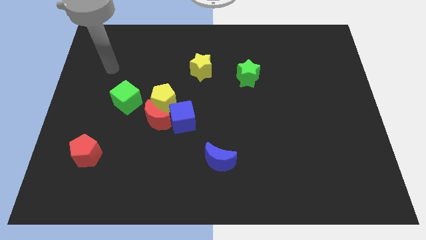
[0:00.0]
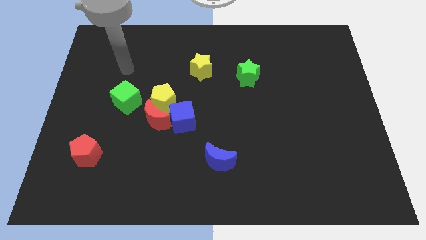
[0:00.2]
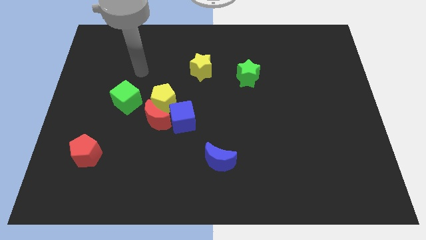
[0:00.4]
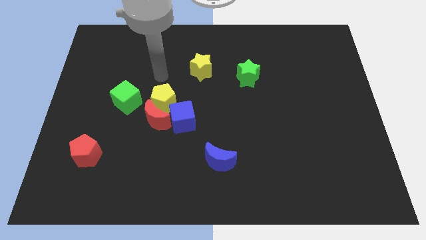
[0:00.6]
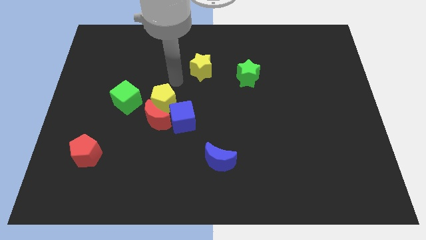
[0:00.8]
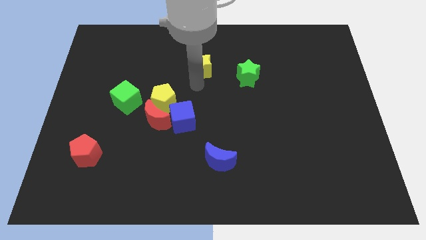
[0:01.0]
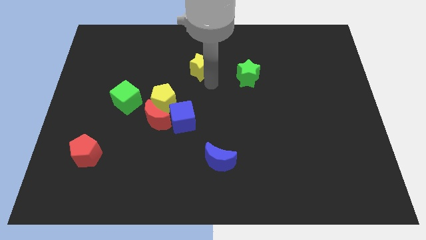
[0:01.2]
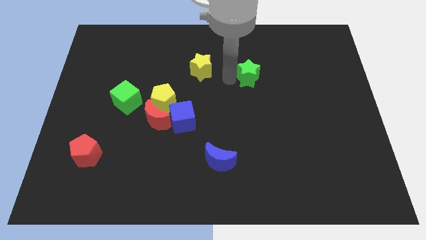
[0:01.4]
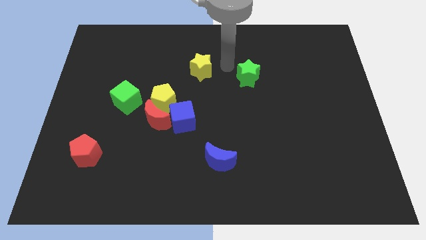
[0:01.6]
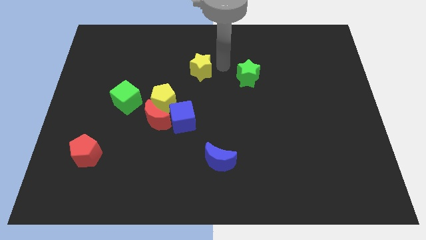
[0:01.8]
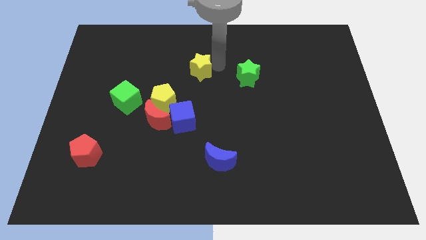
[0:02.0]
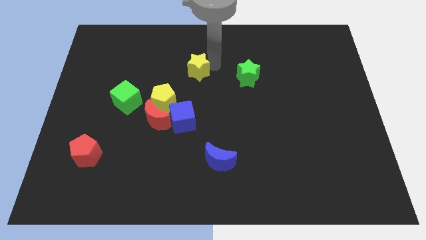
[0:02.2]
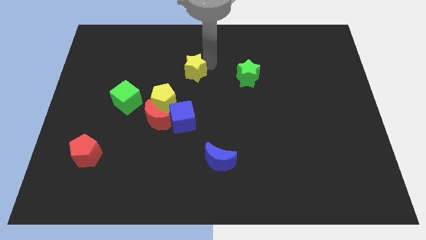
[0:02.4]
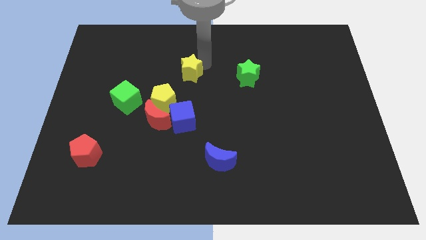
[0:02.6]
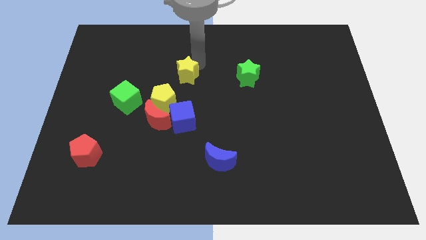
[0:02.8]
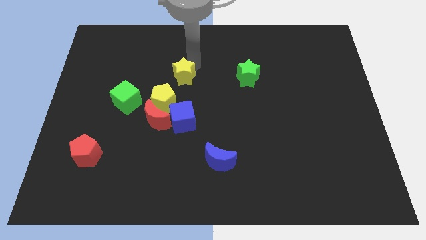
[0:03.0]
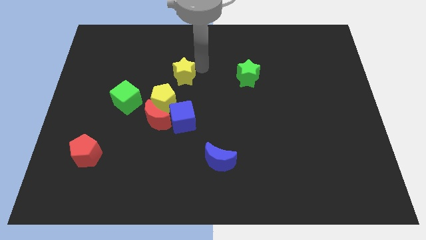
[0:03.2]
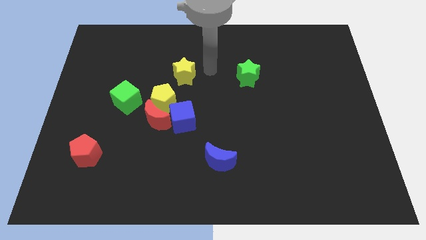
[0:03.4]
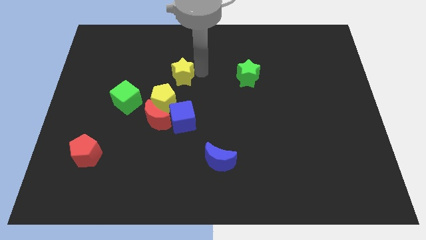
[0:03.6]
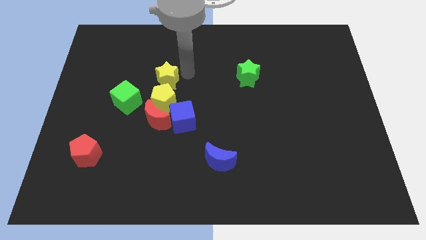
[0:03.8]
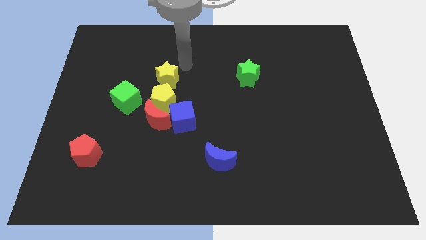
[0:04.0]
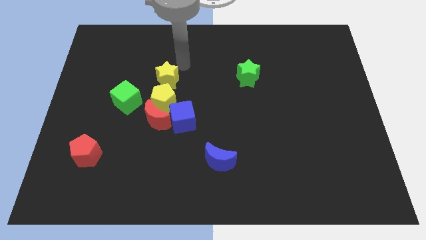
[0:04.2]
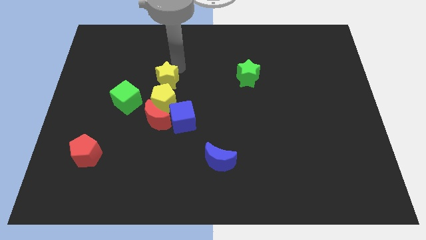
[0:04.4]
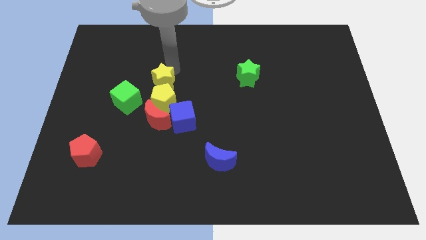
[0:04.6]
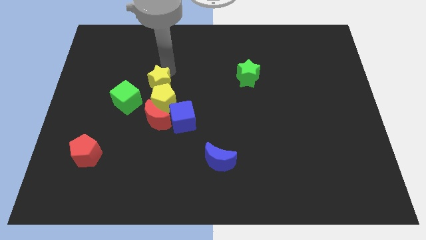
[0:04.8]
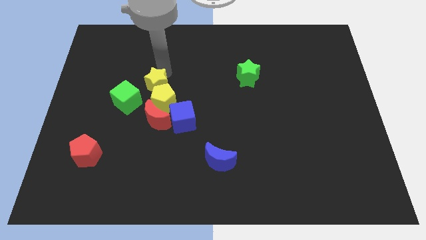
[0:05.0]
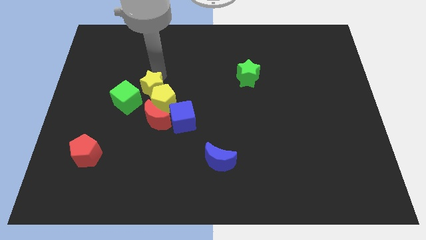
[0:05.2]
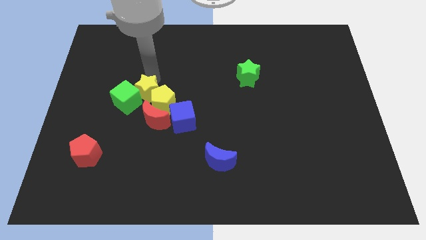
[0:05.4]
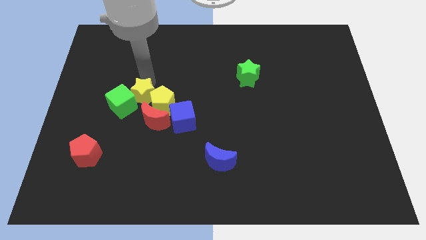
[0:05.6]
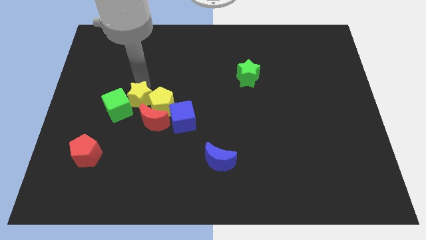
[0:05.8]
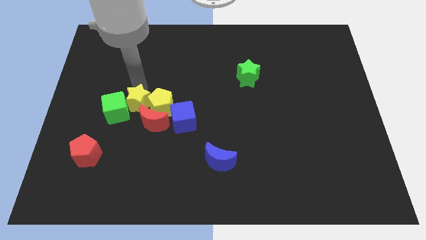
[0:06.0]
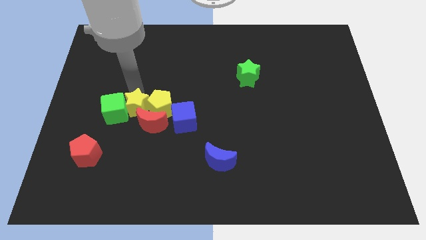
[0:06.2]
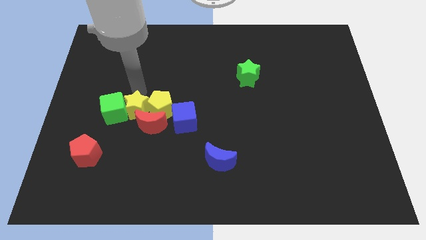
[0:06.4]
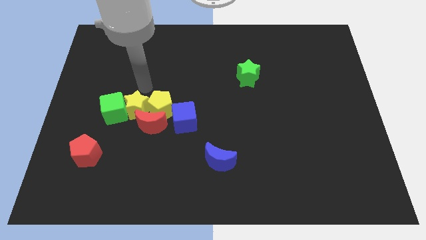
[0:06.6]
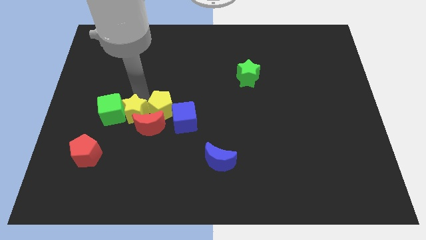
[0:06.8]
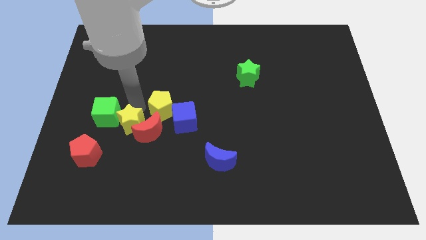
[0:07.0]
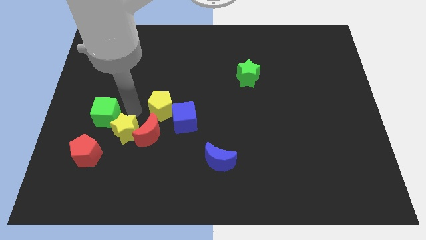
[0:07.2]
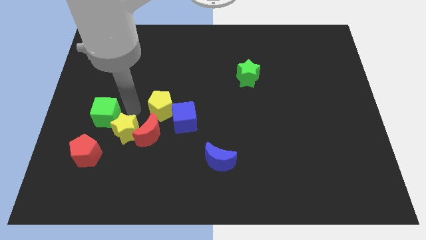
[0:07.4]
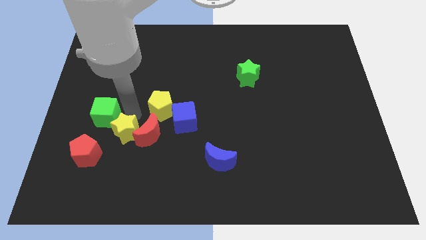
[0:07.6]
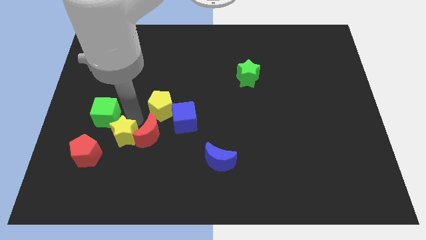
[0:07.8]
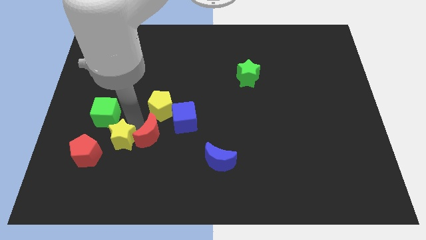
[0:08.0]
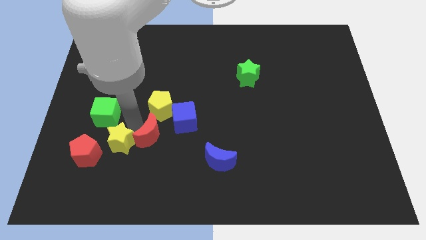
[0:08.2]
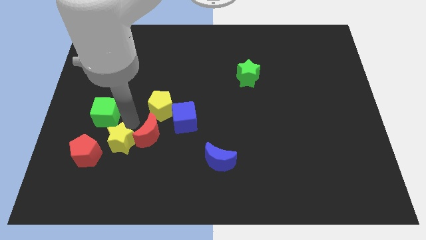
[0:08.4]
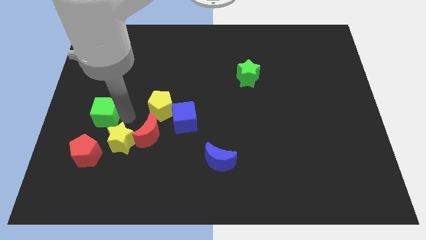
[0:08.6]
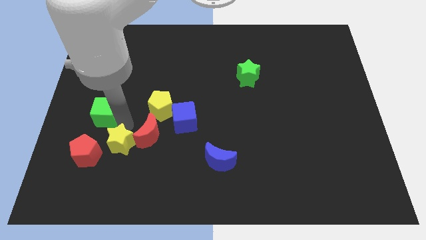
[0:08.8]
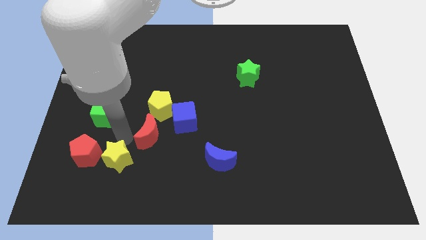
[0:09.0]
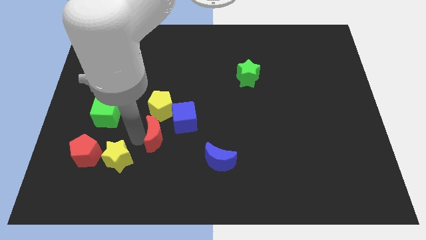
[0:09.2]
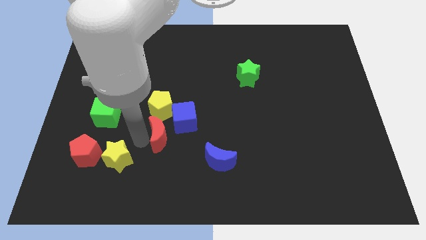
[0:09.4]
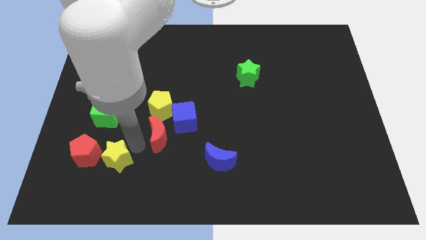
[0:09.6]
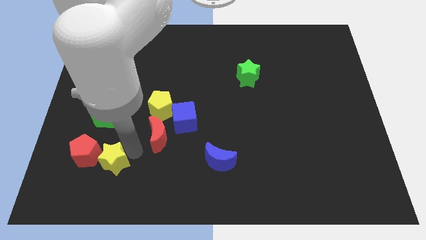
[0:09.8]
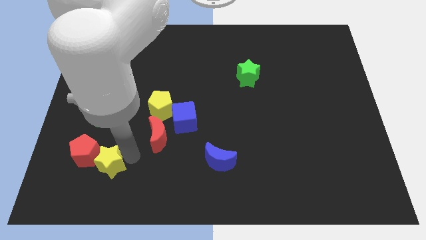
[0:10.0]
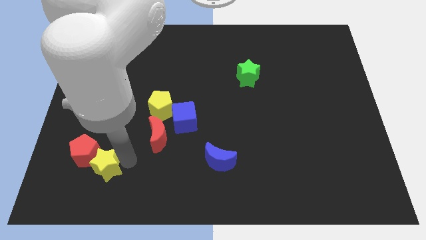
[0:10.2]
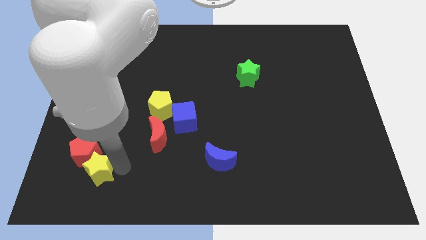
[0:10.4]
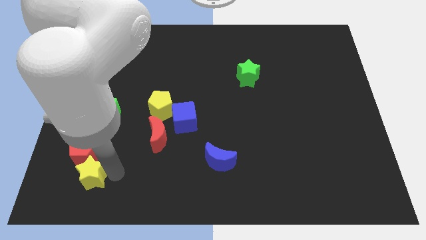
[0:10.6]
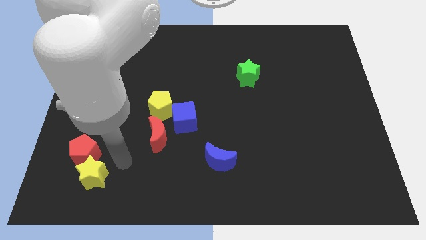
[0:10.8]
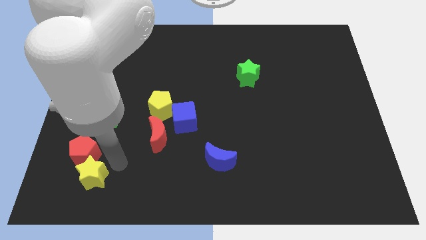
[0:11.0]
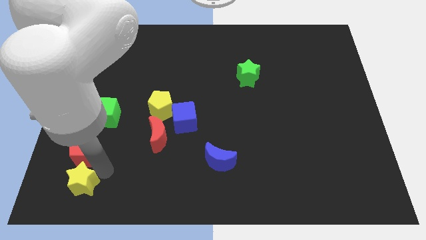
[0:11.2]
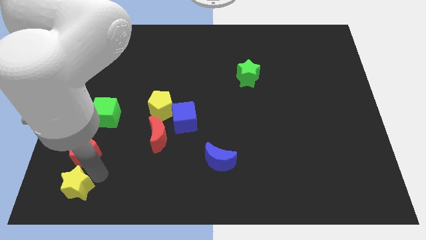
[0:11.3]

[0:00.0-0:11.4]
move the yellow star to the bottom left of the board

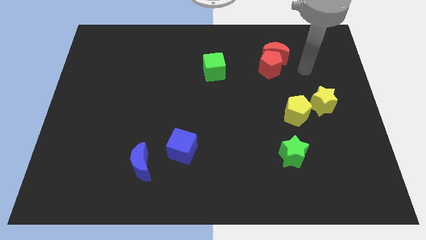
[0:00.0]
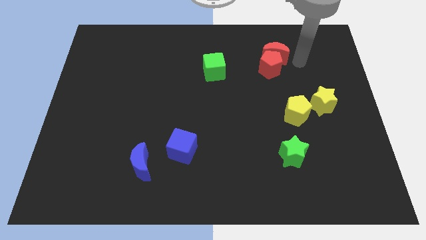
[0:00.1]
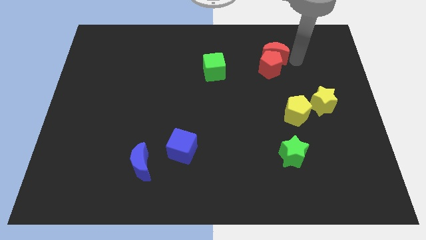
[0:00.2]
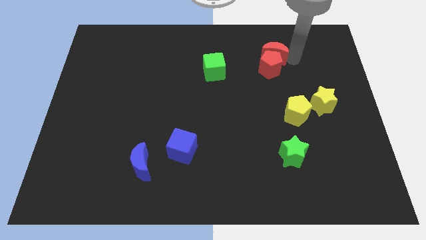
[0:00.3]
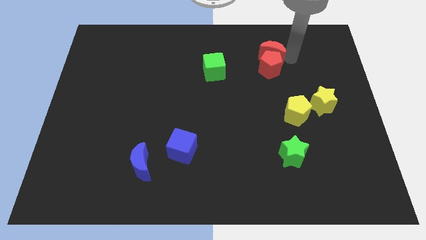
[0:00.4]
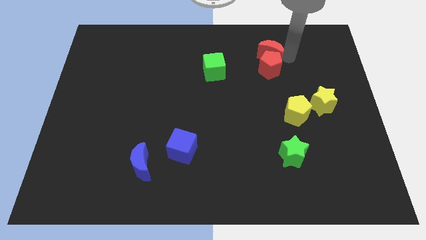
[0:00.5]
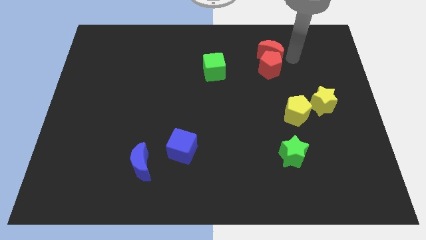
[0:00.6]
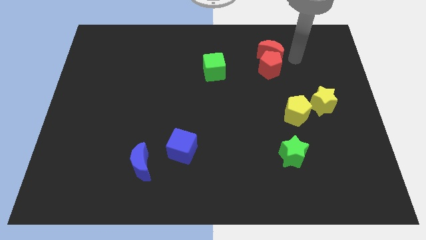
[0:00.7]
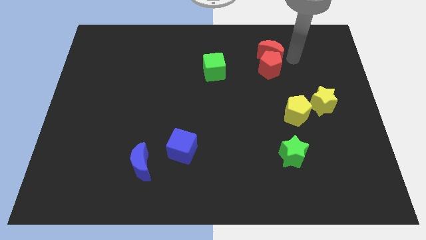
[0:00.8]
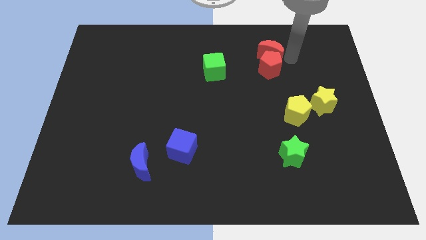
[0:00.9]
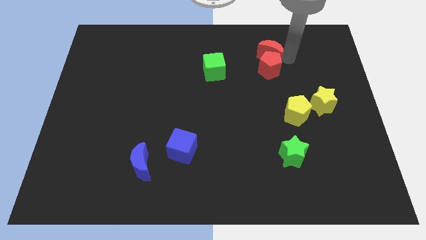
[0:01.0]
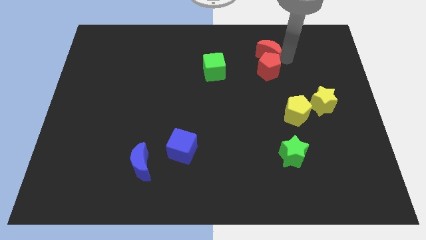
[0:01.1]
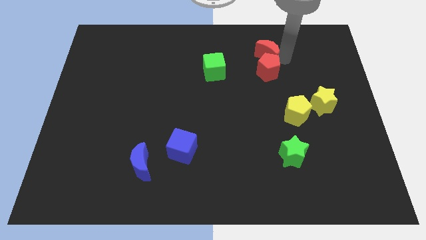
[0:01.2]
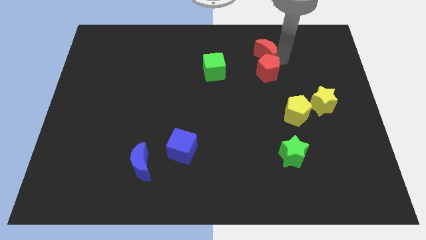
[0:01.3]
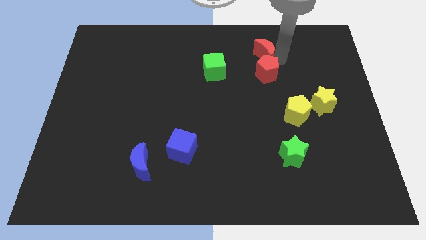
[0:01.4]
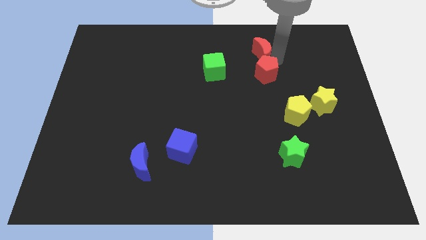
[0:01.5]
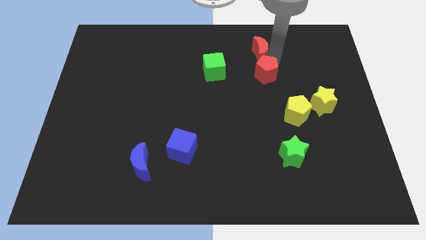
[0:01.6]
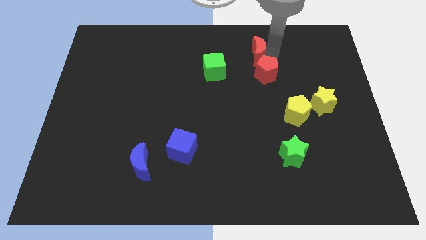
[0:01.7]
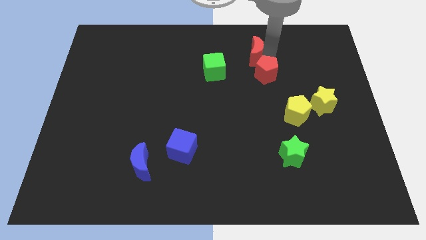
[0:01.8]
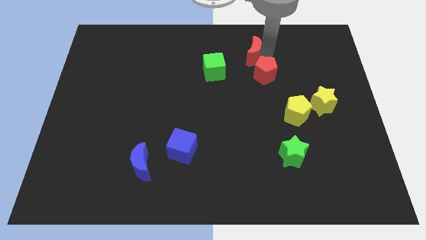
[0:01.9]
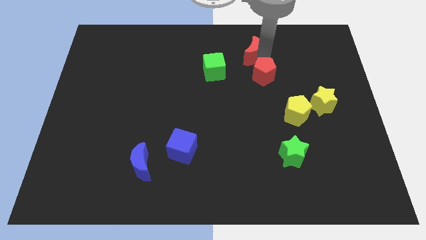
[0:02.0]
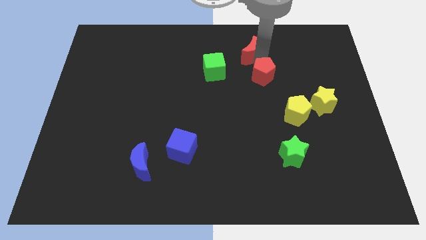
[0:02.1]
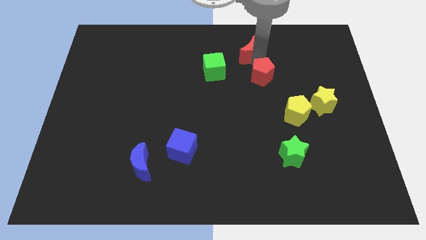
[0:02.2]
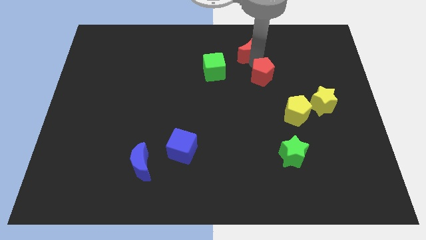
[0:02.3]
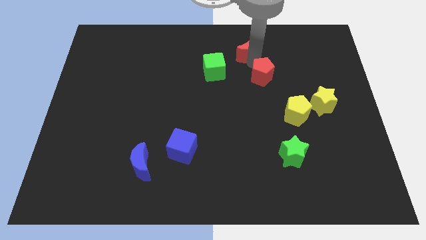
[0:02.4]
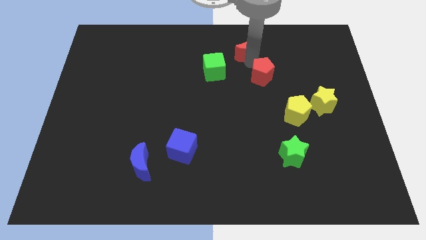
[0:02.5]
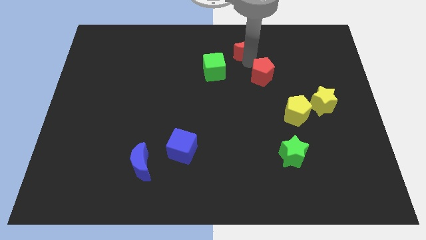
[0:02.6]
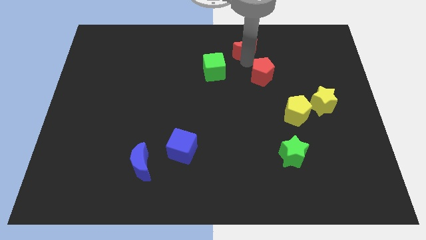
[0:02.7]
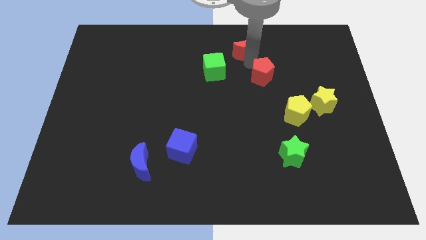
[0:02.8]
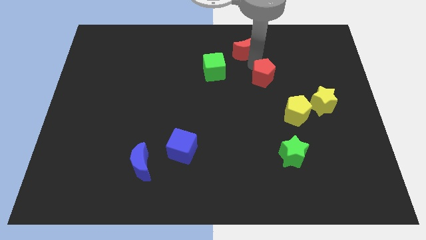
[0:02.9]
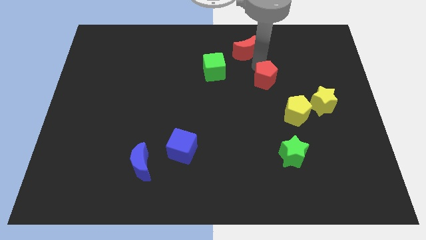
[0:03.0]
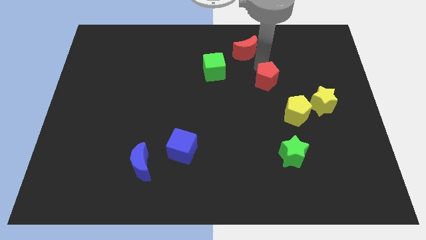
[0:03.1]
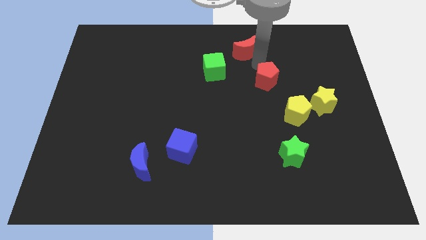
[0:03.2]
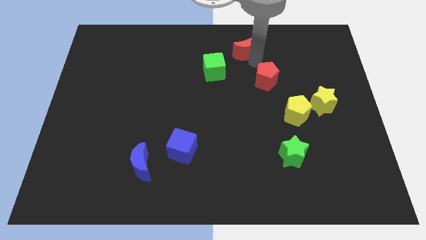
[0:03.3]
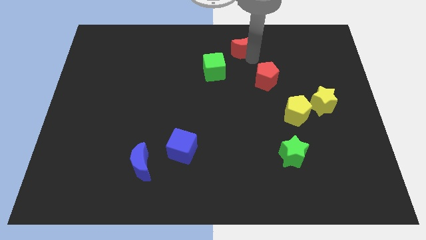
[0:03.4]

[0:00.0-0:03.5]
put the red moon to the towards your base
